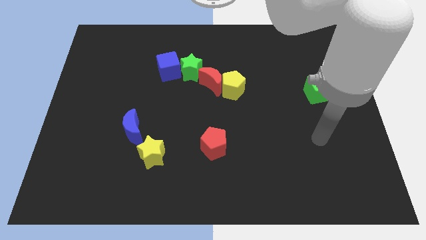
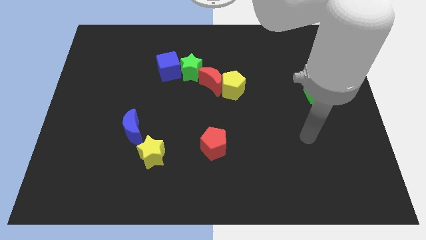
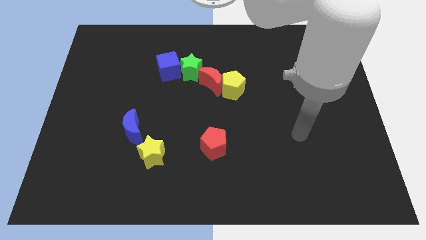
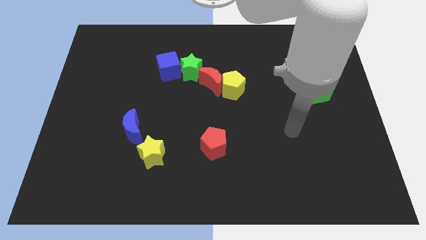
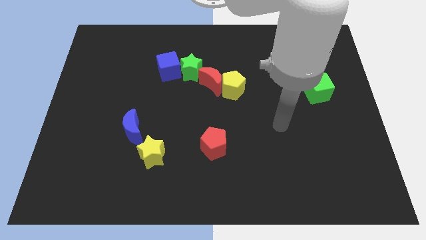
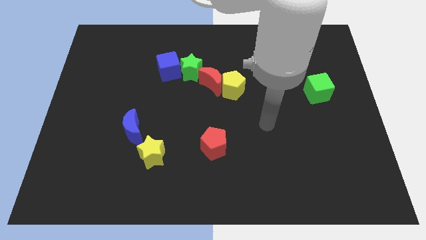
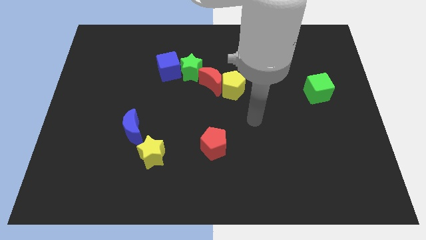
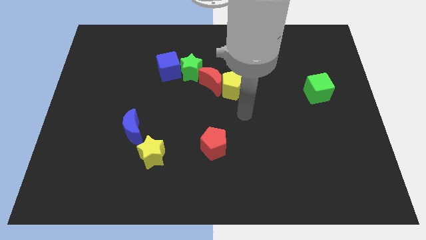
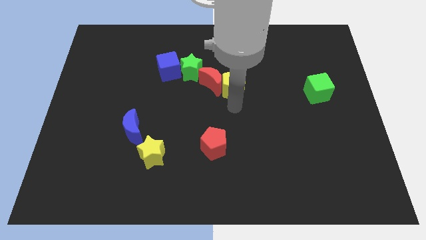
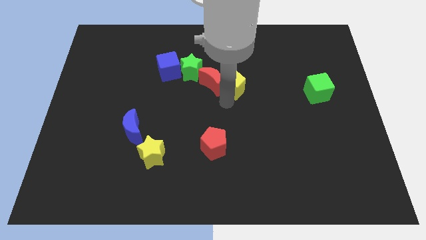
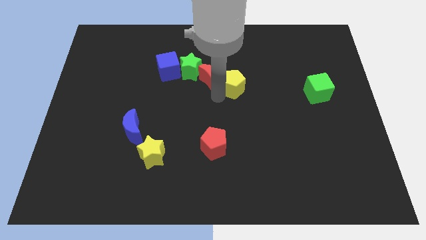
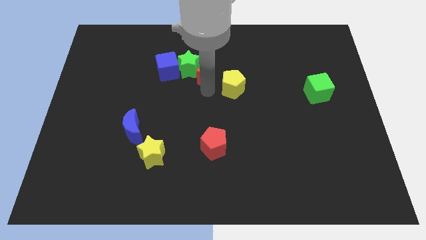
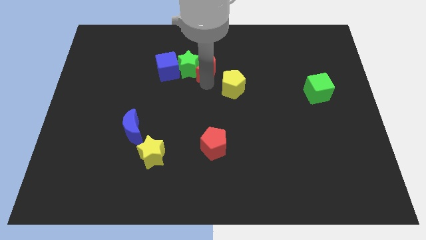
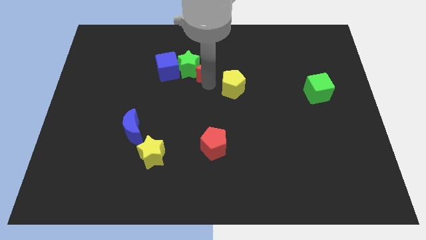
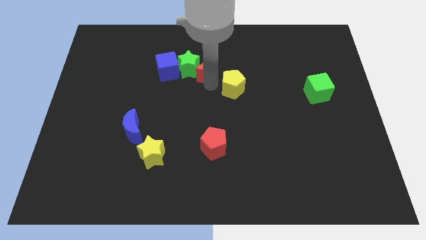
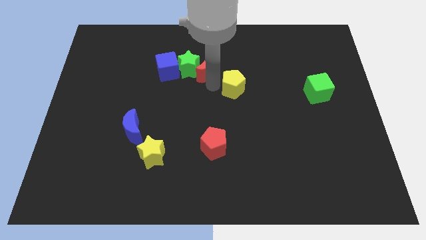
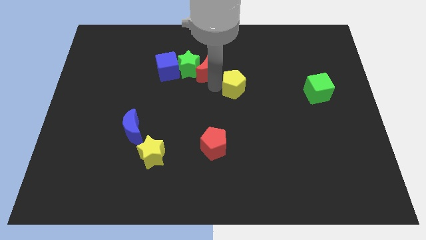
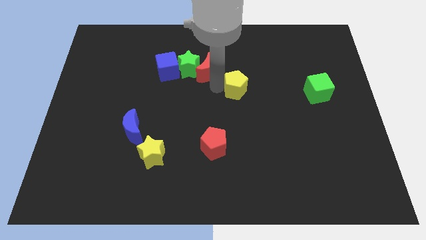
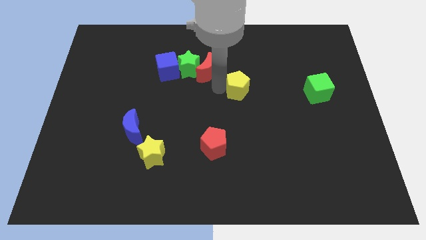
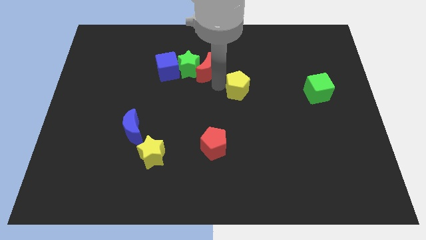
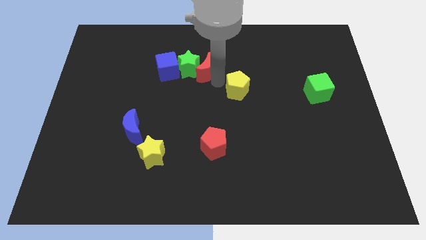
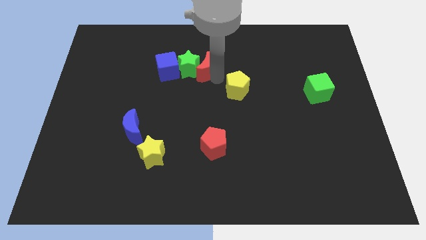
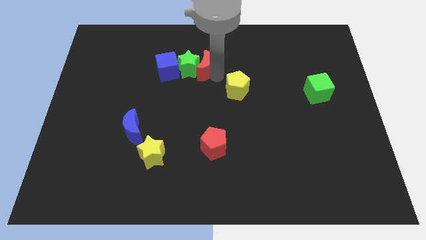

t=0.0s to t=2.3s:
pull the yellow pentagon apart from the red moon

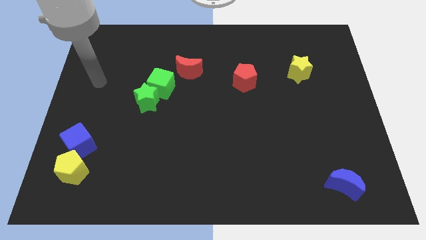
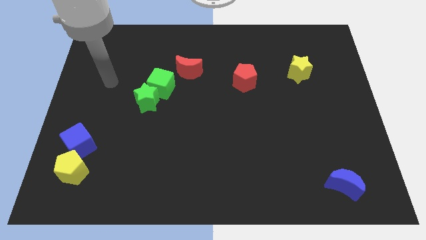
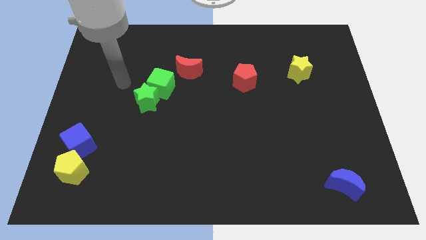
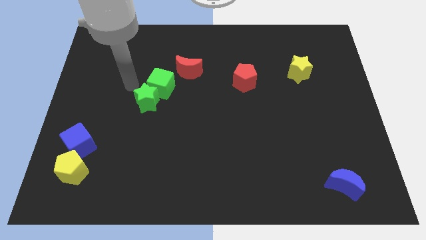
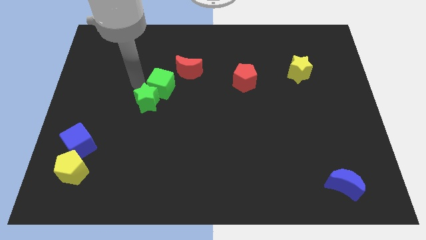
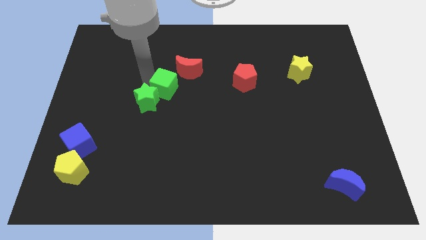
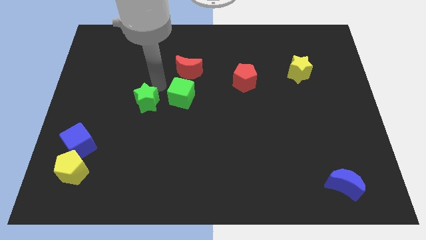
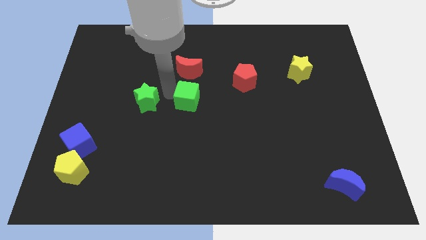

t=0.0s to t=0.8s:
pull the green star apart from the green cube

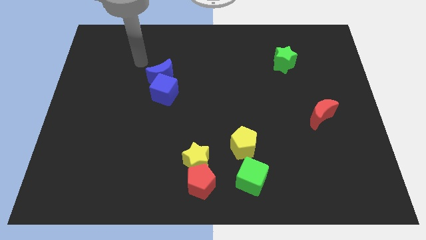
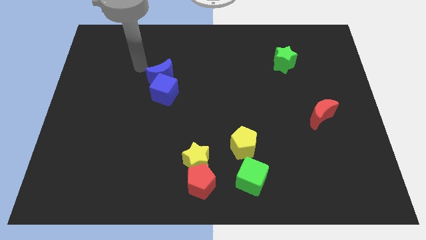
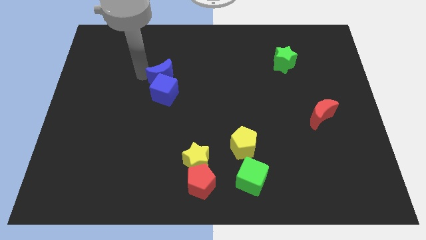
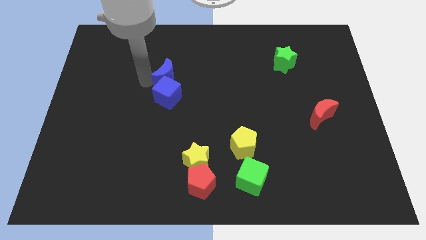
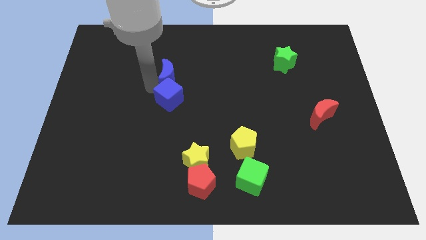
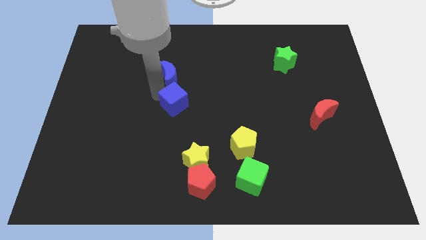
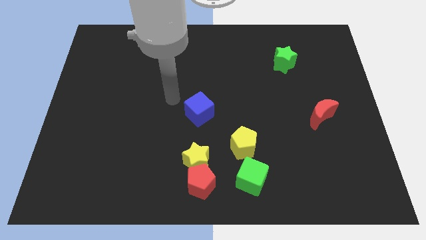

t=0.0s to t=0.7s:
pull the blue moon apart from the blue cube

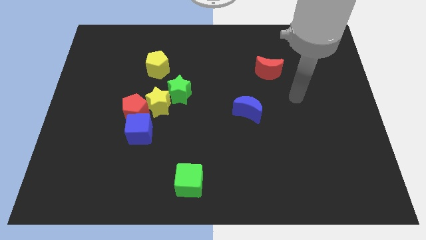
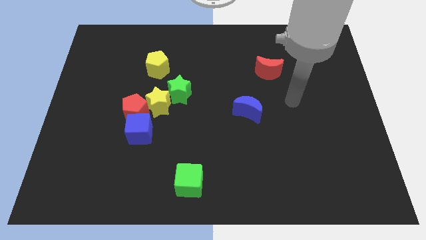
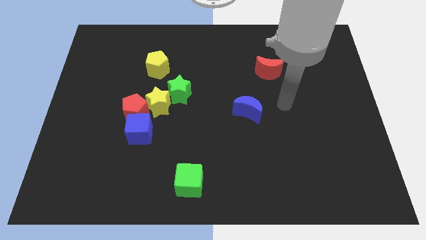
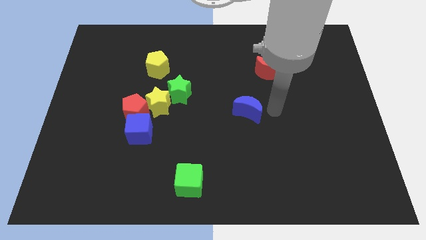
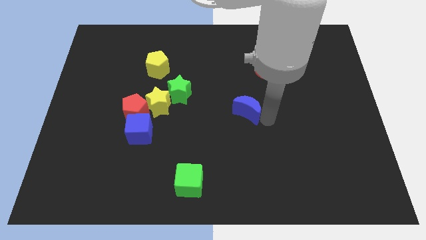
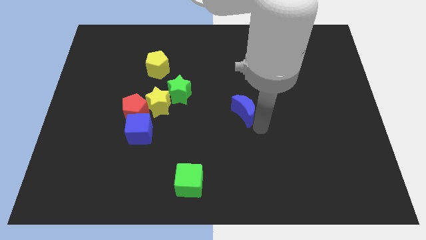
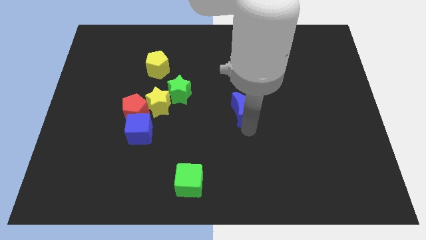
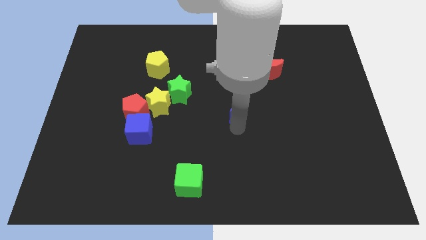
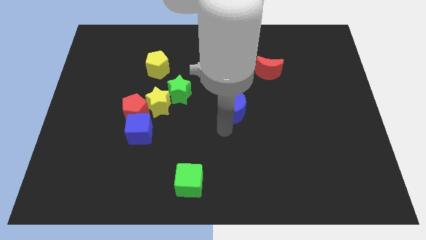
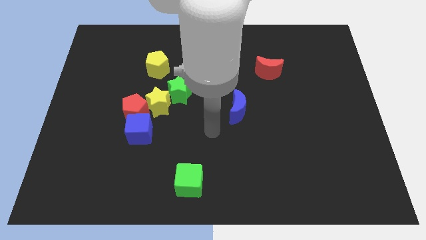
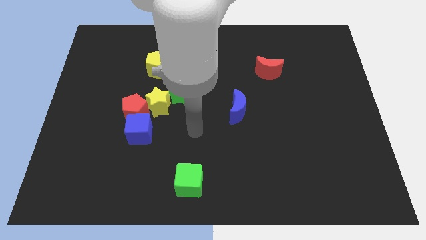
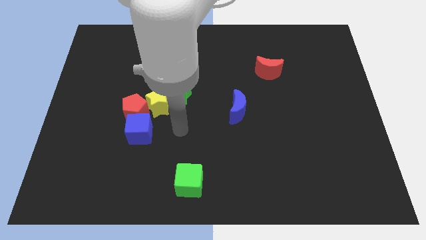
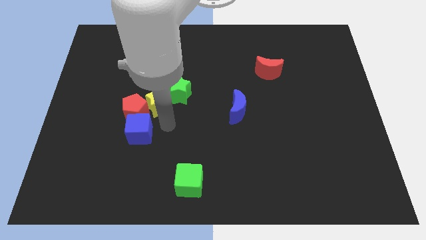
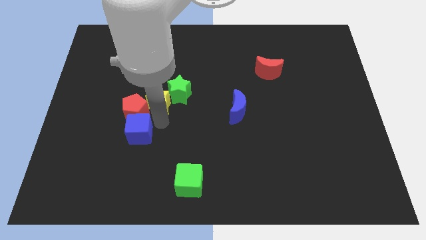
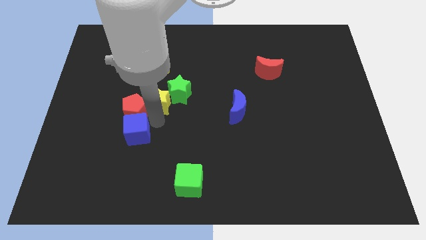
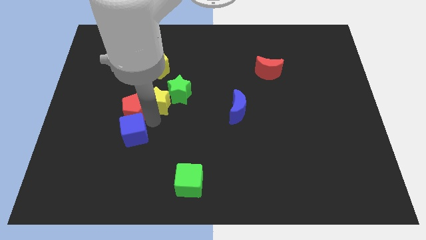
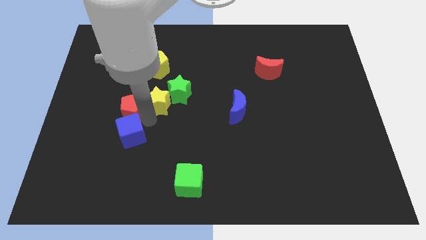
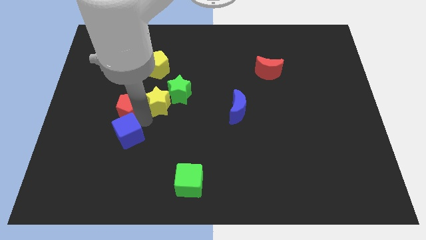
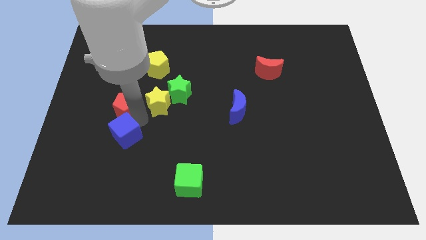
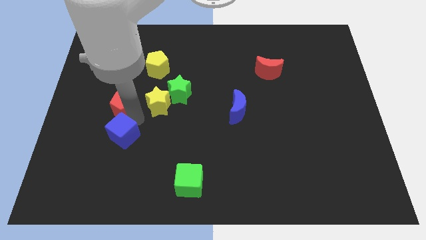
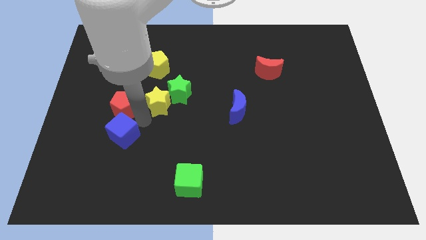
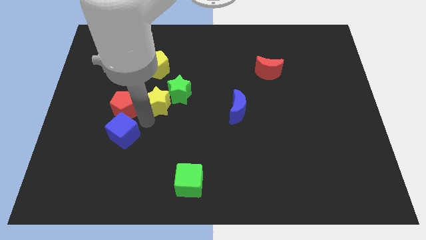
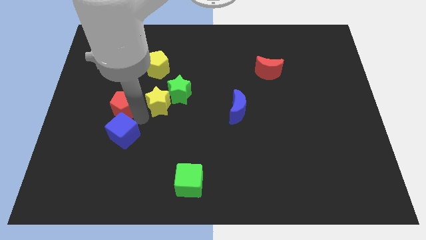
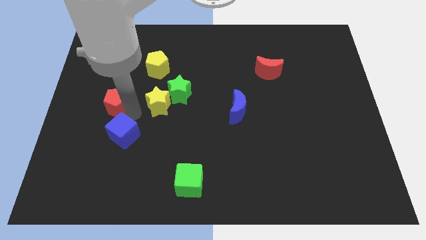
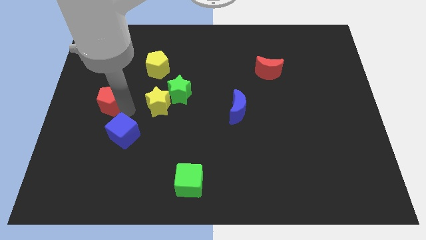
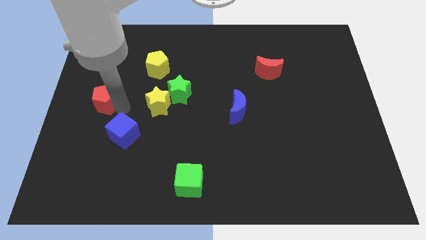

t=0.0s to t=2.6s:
pull the red pentagon apart from the yellow star and blue cube

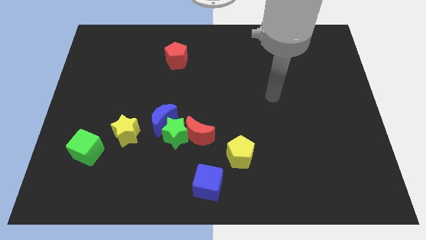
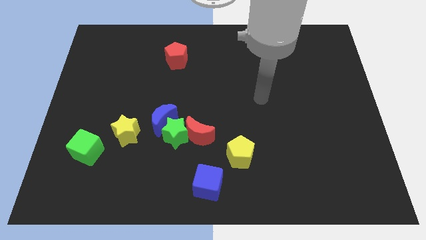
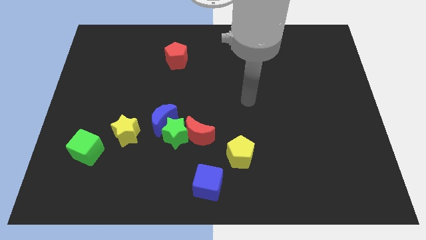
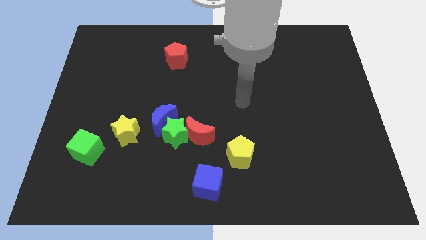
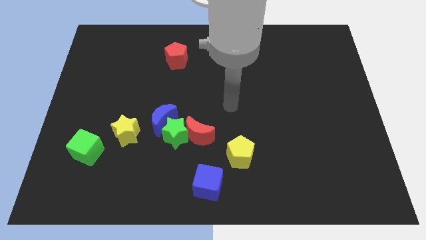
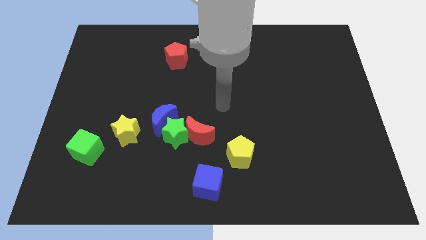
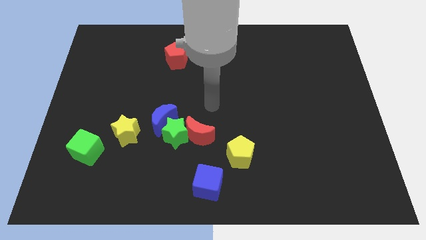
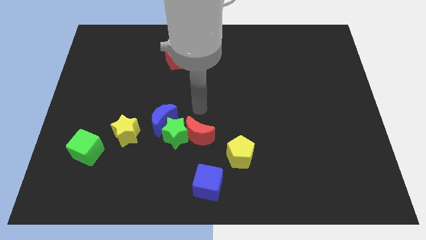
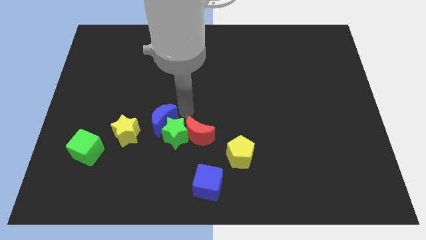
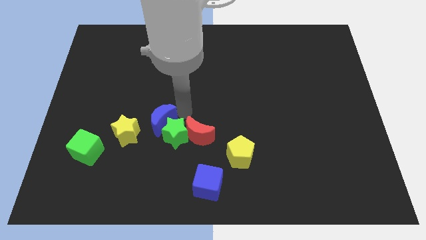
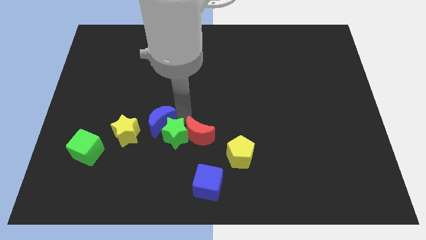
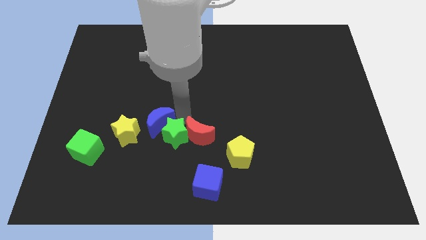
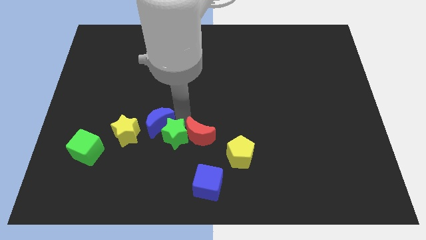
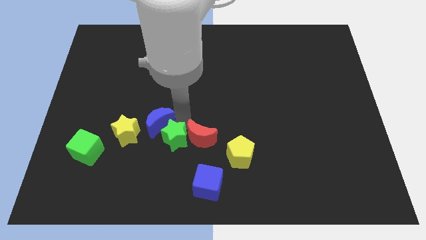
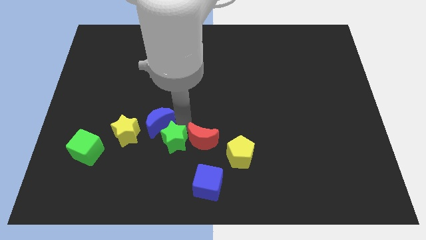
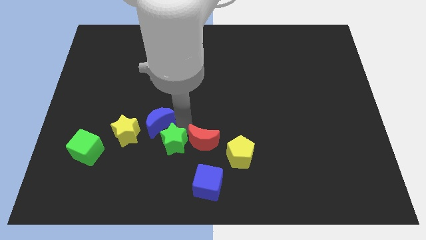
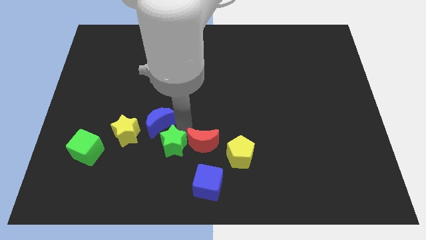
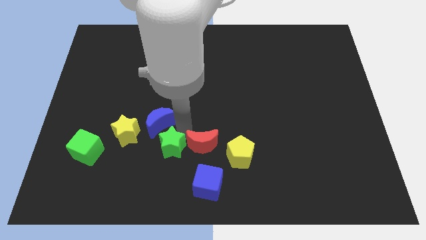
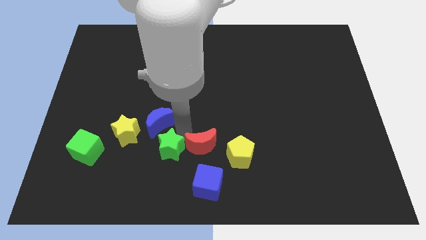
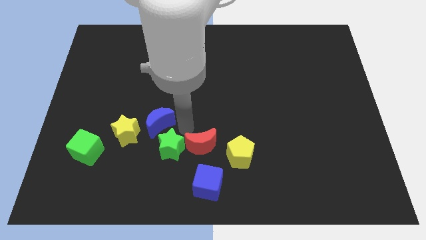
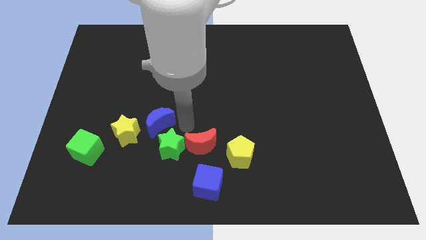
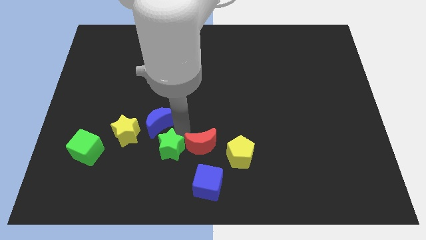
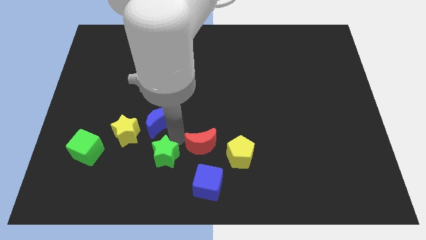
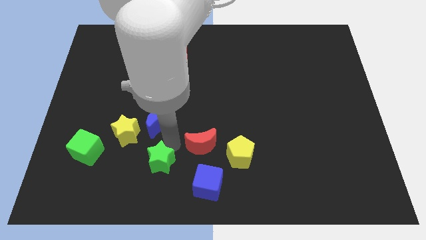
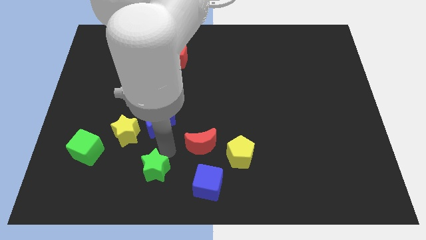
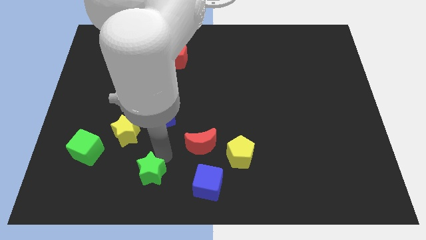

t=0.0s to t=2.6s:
pull the green star apart from the blue moon and red moon

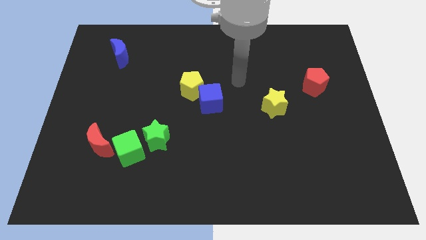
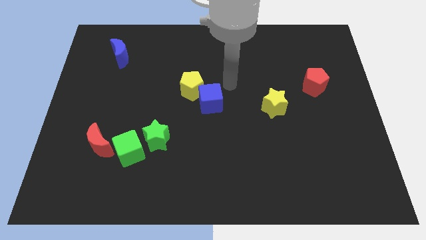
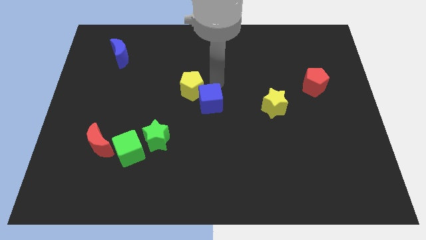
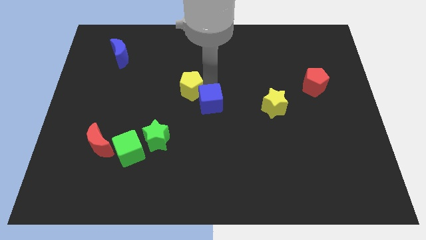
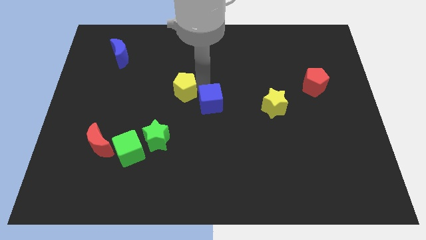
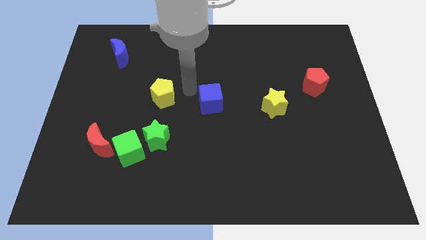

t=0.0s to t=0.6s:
move the blue cube away from the yellow pentagon
